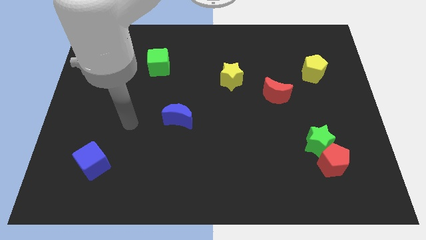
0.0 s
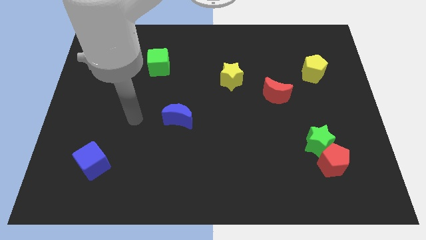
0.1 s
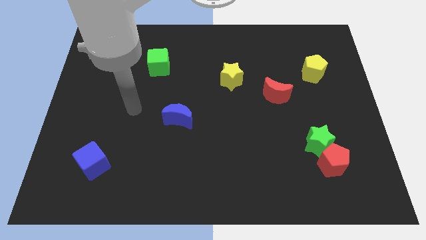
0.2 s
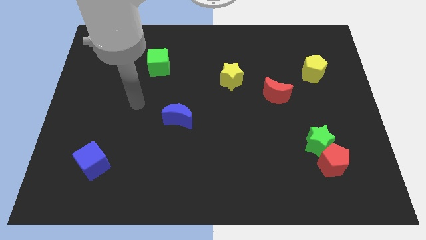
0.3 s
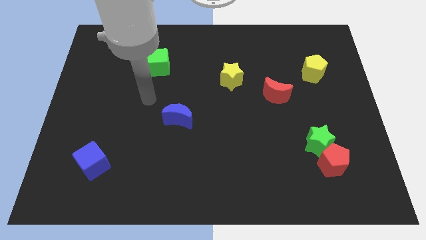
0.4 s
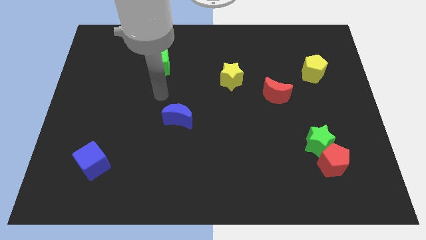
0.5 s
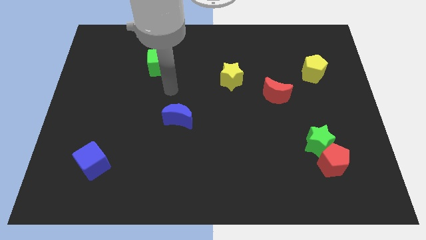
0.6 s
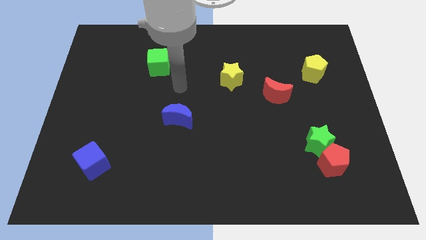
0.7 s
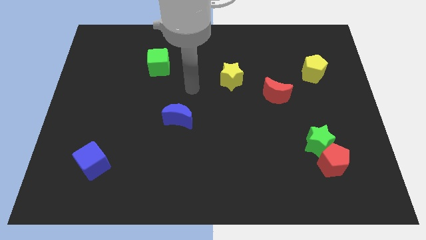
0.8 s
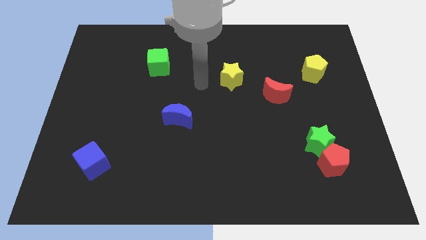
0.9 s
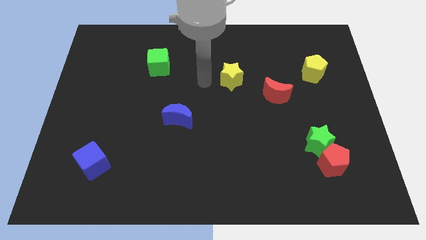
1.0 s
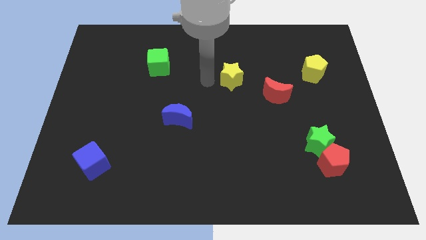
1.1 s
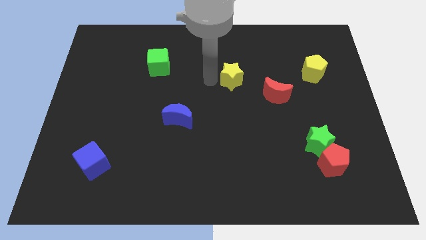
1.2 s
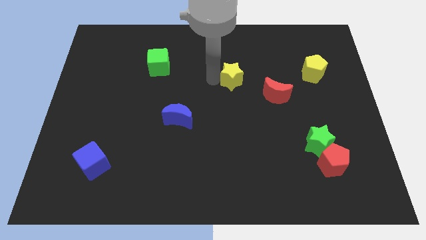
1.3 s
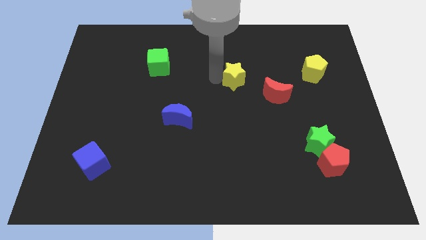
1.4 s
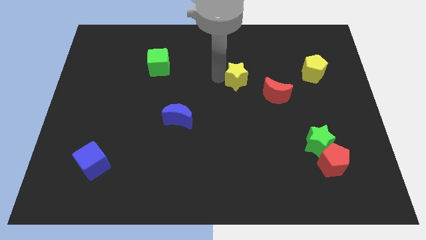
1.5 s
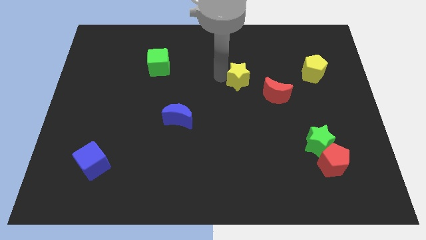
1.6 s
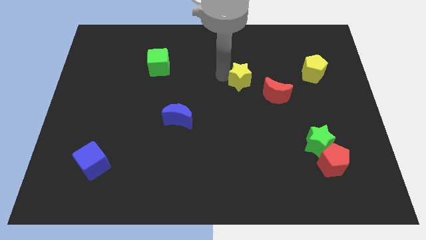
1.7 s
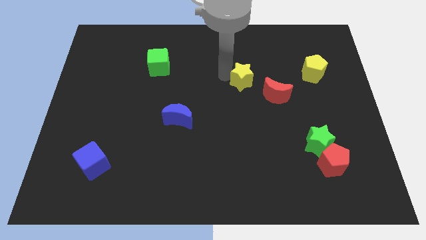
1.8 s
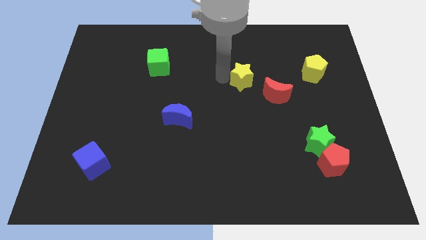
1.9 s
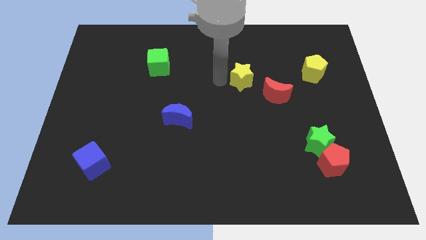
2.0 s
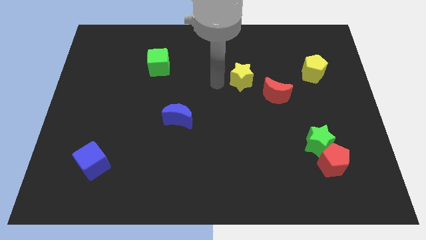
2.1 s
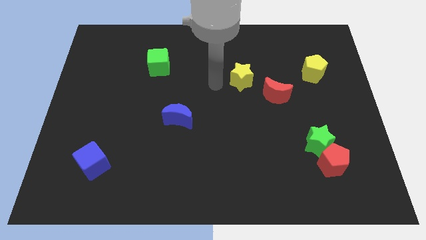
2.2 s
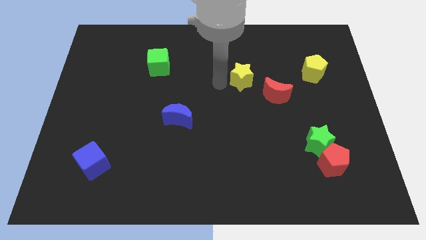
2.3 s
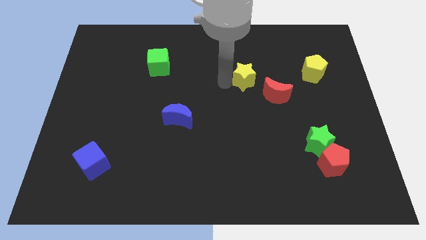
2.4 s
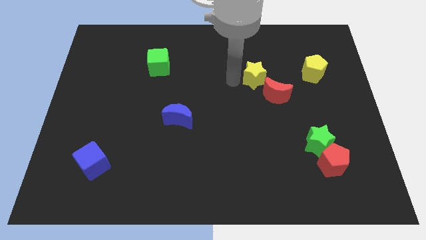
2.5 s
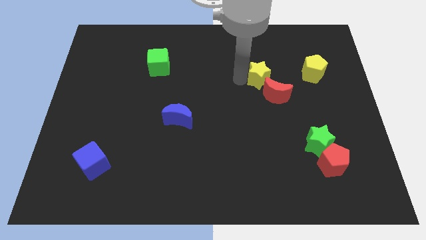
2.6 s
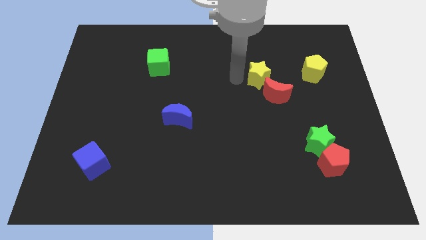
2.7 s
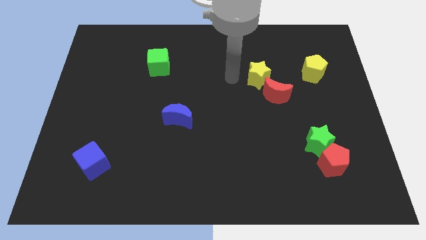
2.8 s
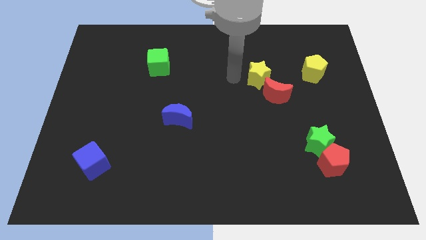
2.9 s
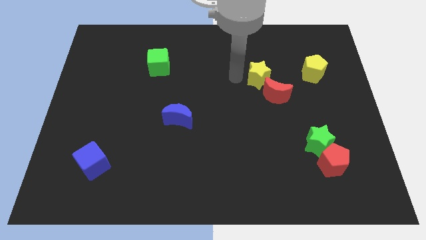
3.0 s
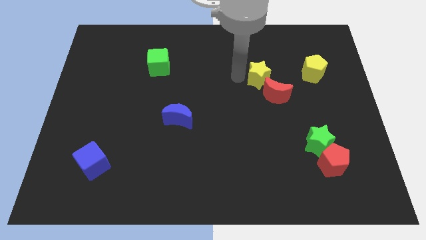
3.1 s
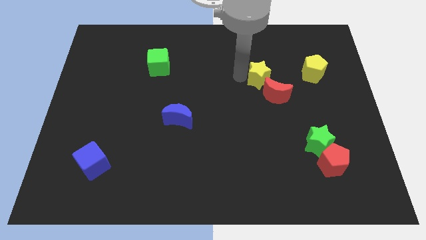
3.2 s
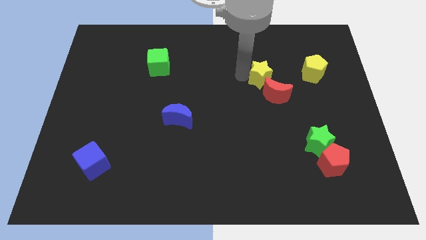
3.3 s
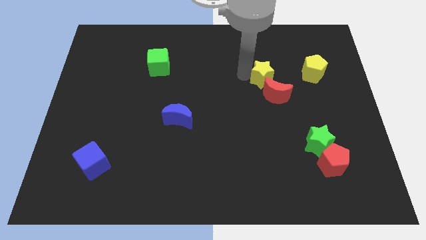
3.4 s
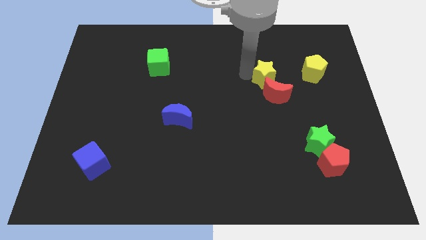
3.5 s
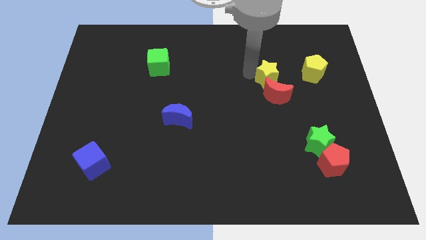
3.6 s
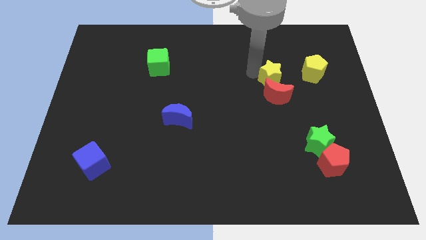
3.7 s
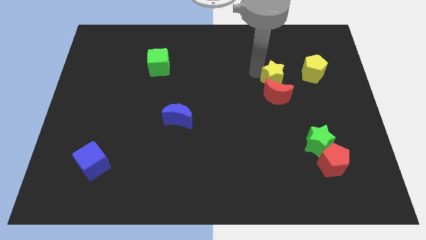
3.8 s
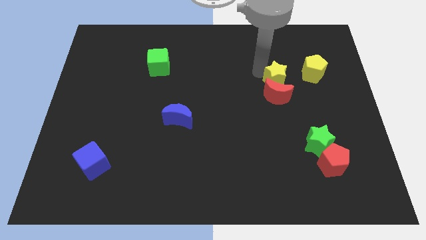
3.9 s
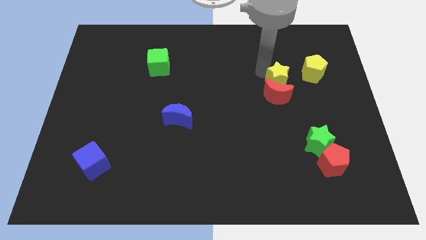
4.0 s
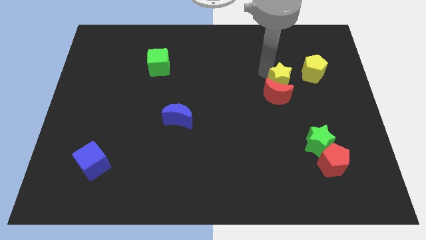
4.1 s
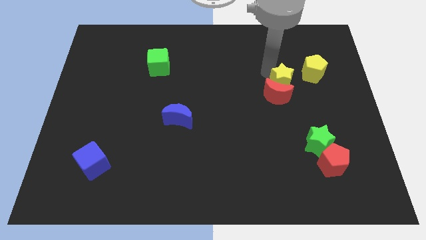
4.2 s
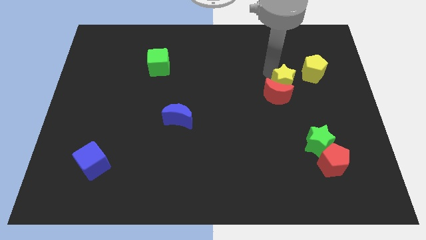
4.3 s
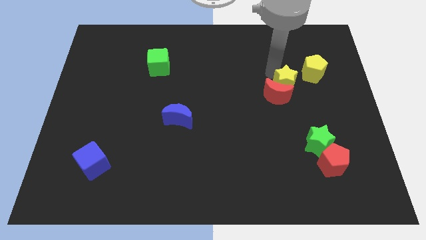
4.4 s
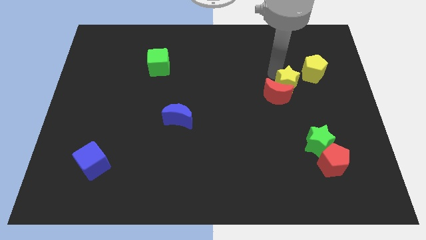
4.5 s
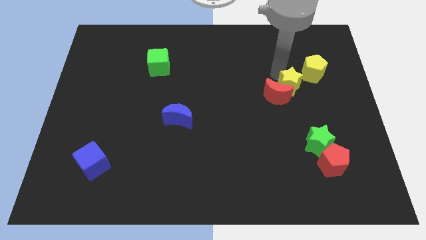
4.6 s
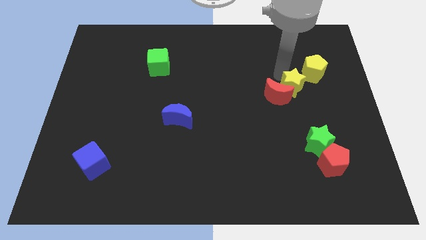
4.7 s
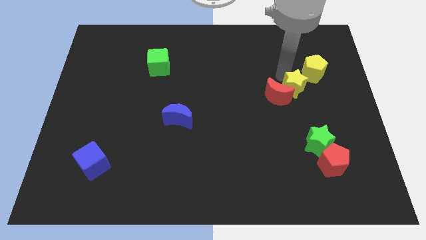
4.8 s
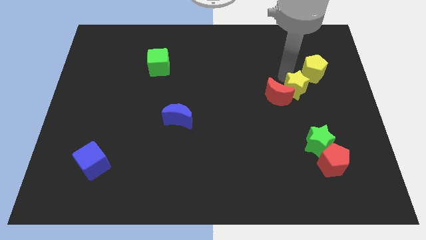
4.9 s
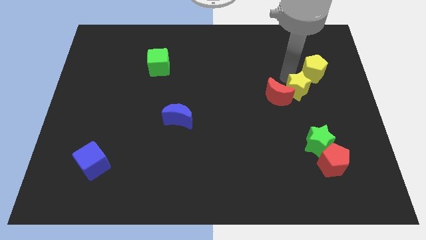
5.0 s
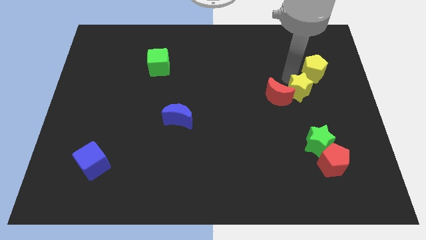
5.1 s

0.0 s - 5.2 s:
put the yellow star to the bottom side of the yellow pentagon

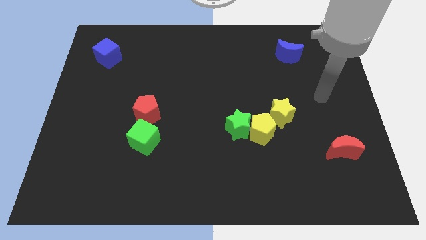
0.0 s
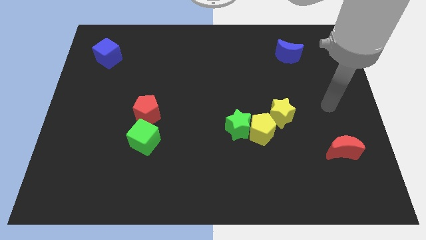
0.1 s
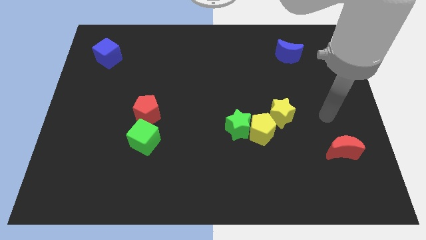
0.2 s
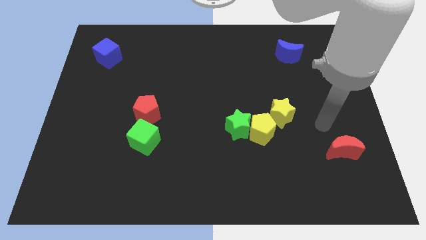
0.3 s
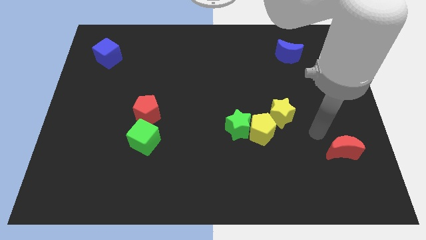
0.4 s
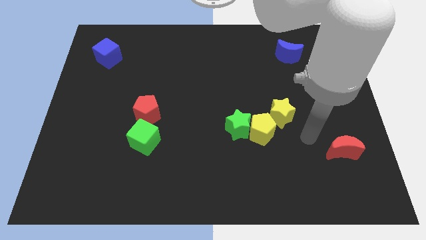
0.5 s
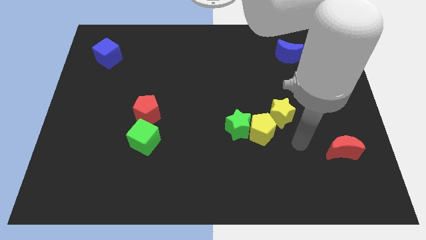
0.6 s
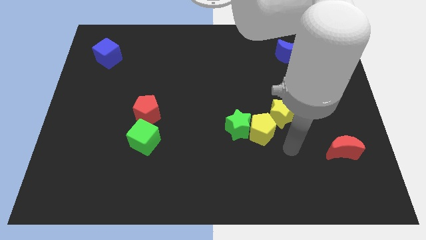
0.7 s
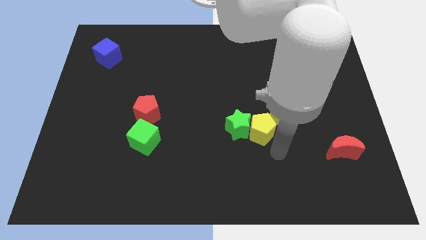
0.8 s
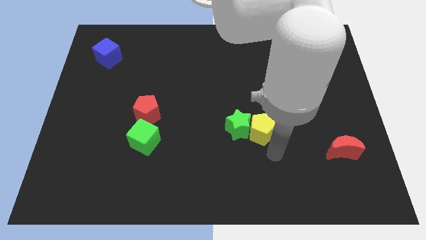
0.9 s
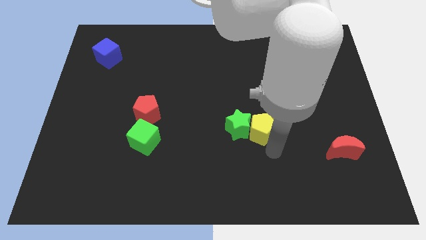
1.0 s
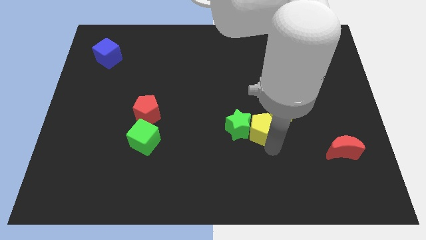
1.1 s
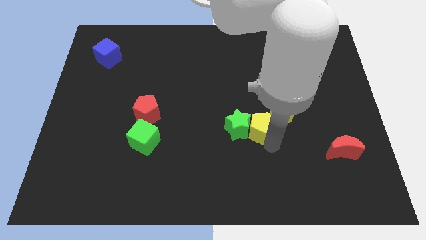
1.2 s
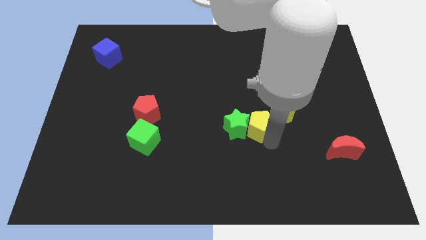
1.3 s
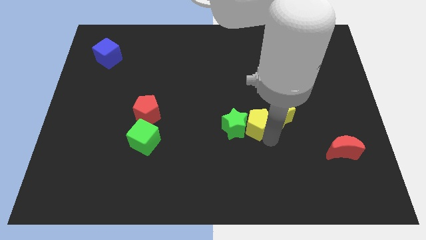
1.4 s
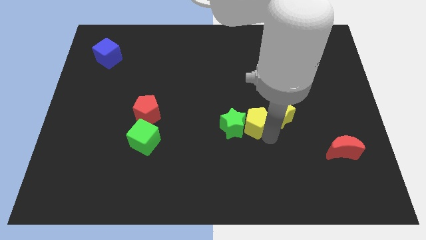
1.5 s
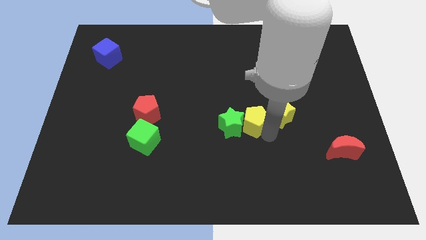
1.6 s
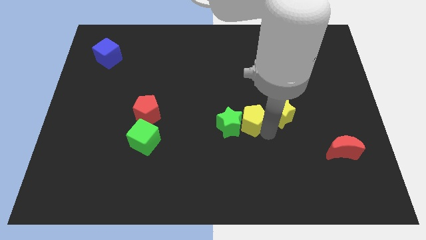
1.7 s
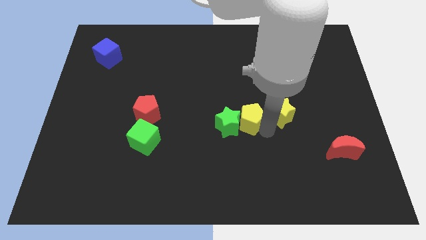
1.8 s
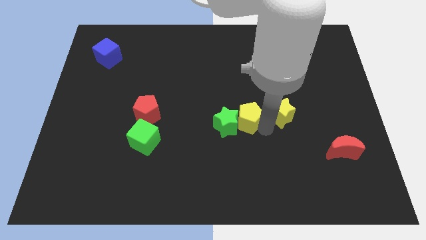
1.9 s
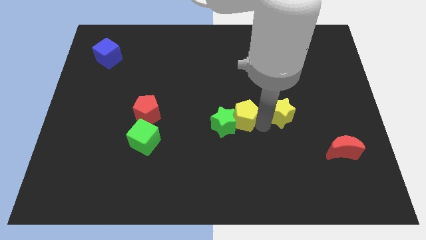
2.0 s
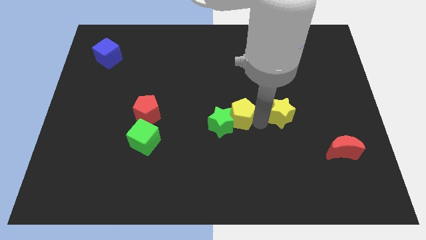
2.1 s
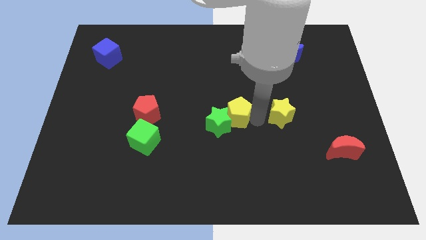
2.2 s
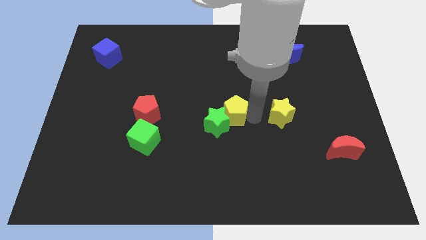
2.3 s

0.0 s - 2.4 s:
slide the yellow pentagon to the top side of the green star
